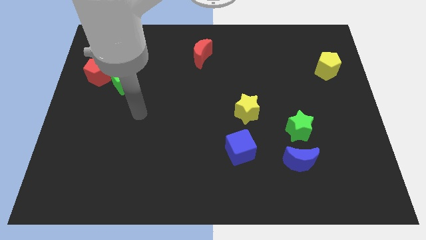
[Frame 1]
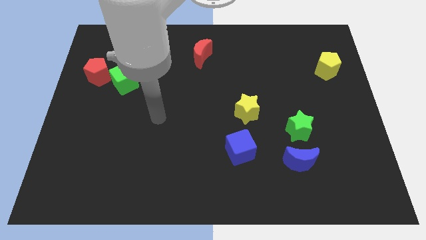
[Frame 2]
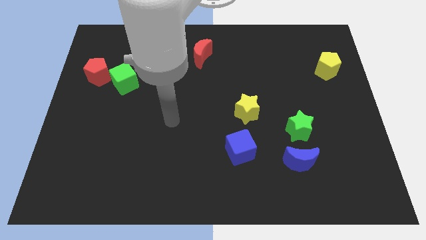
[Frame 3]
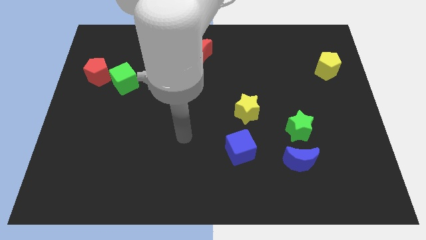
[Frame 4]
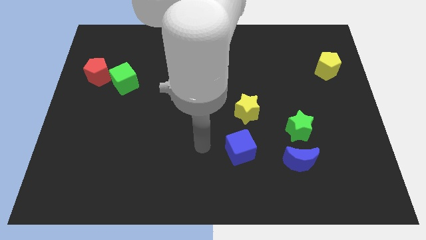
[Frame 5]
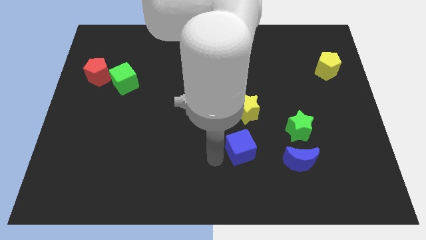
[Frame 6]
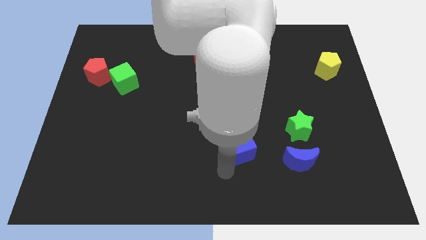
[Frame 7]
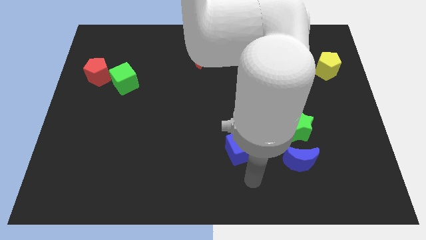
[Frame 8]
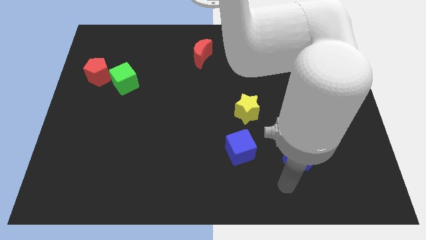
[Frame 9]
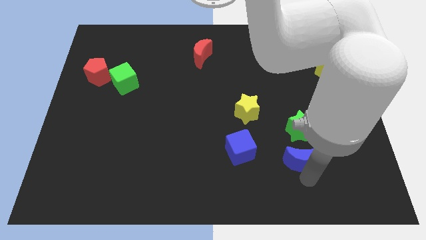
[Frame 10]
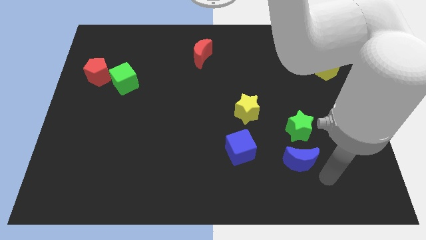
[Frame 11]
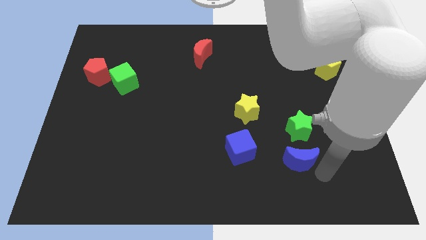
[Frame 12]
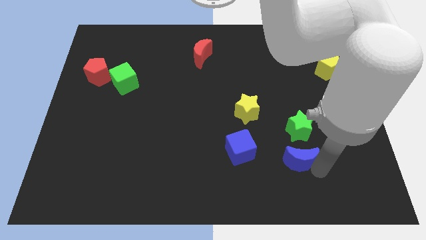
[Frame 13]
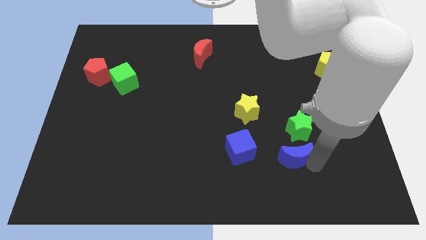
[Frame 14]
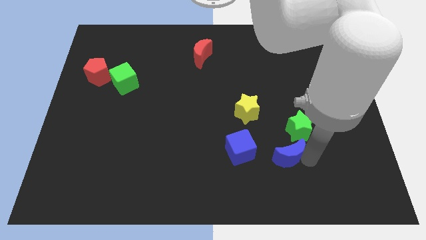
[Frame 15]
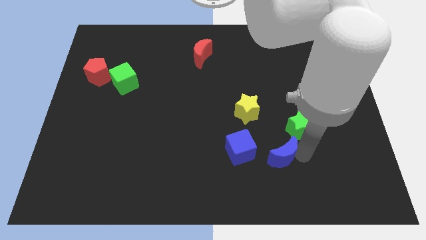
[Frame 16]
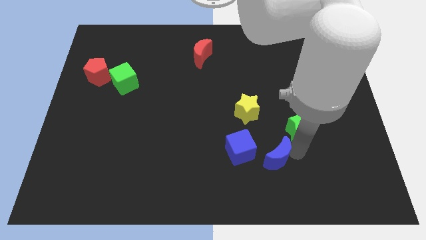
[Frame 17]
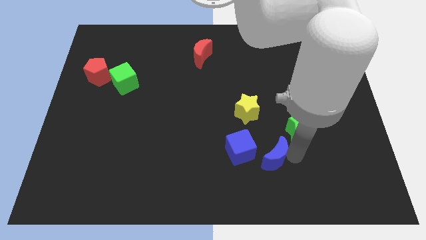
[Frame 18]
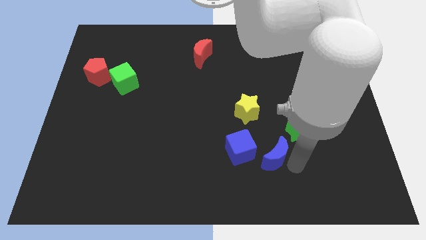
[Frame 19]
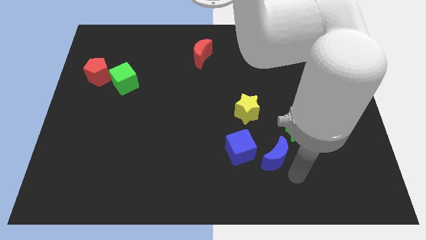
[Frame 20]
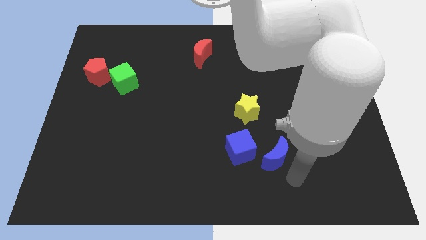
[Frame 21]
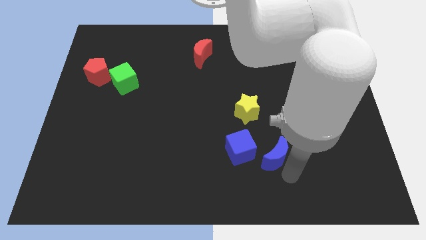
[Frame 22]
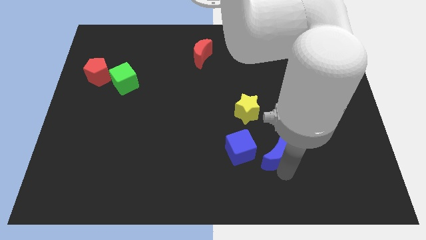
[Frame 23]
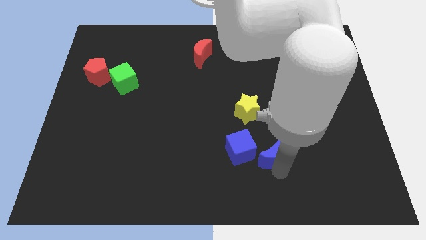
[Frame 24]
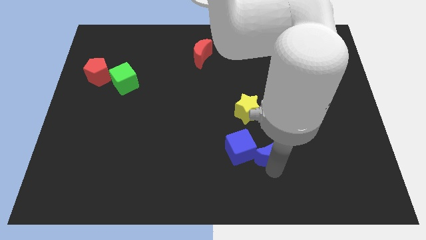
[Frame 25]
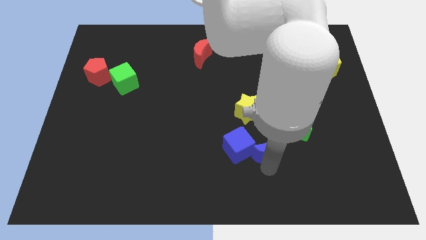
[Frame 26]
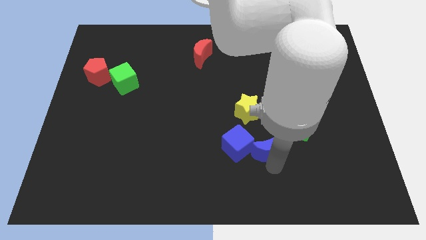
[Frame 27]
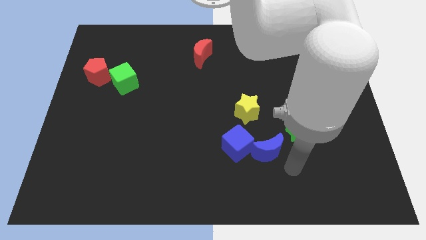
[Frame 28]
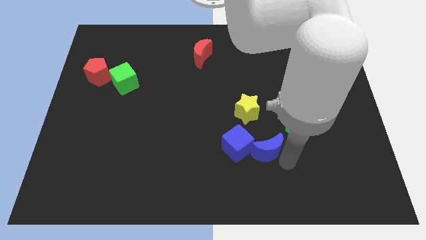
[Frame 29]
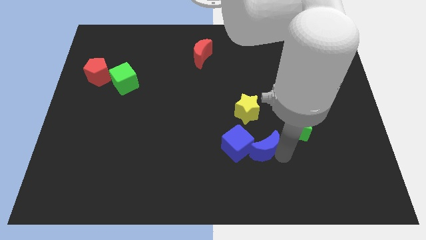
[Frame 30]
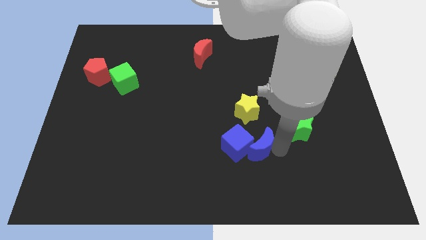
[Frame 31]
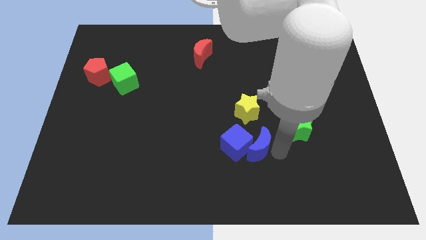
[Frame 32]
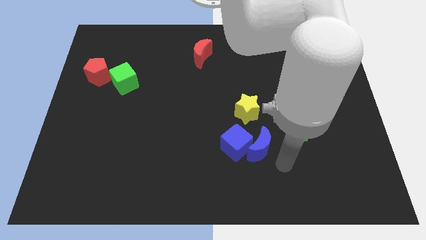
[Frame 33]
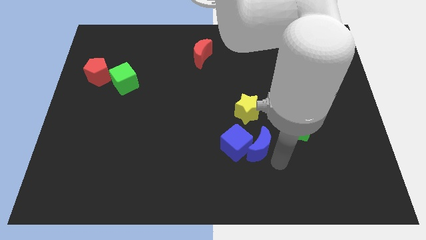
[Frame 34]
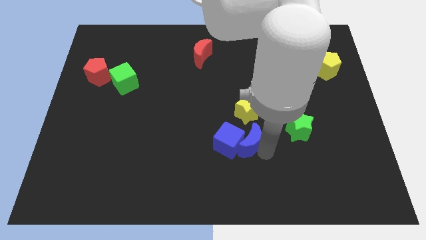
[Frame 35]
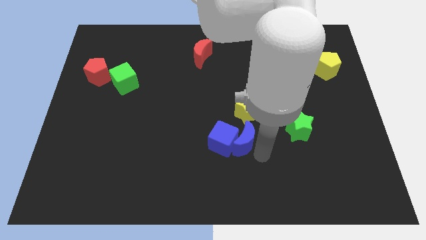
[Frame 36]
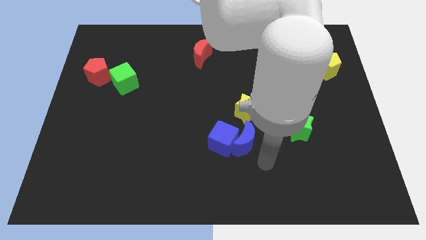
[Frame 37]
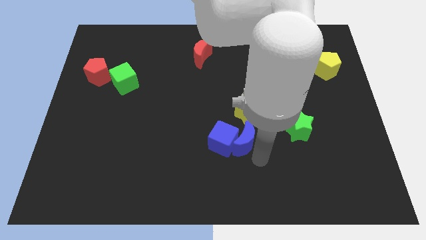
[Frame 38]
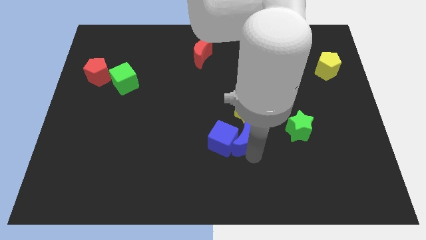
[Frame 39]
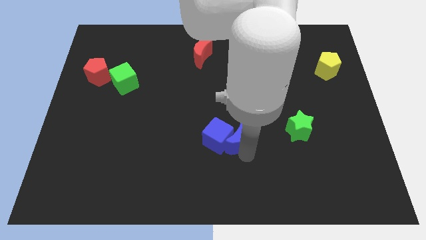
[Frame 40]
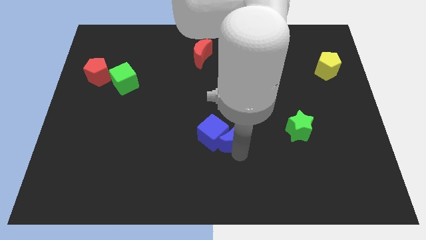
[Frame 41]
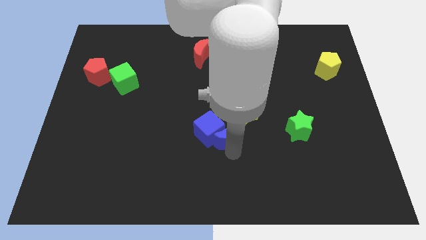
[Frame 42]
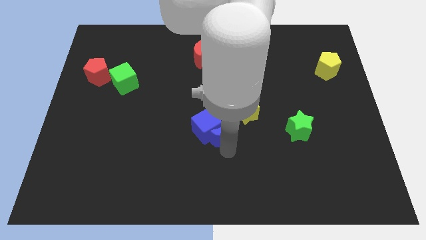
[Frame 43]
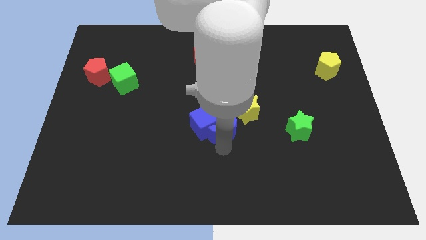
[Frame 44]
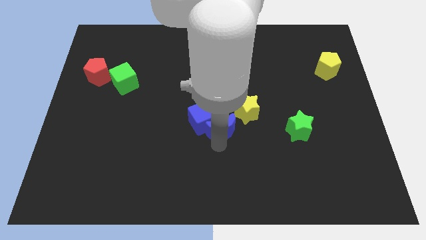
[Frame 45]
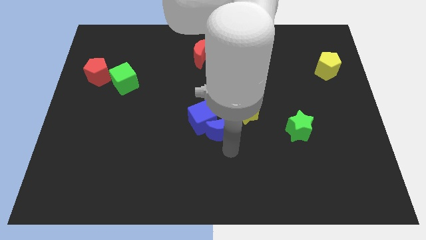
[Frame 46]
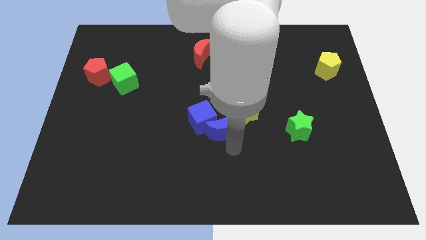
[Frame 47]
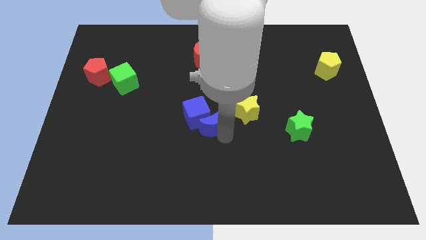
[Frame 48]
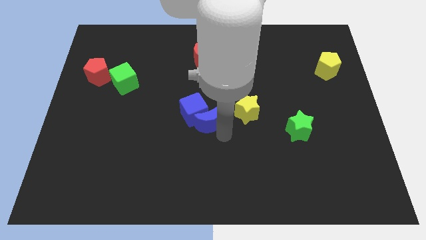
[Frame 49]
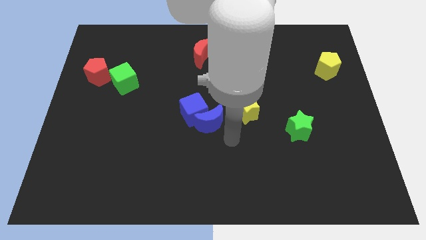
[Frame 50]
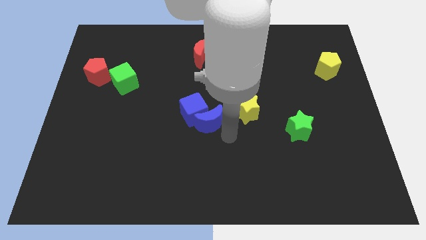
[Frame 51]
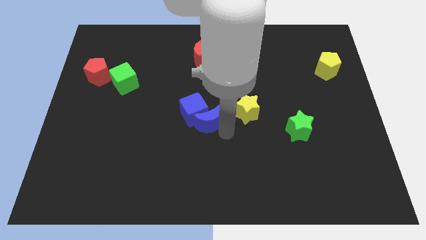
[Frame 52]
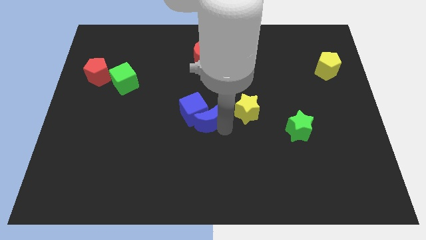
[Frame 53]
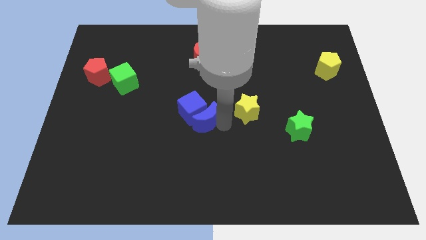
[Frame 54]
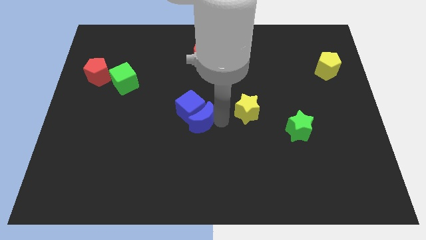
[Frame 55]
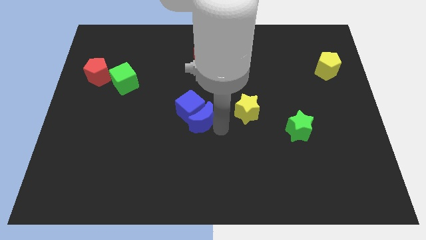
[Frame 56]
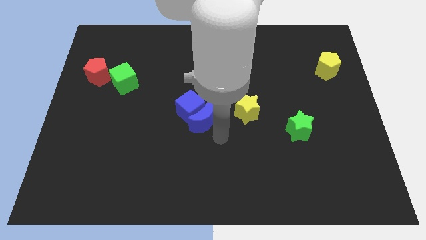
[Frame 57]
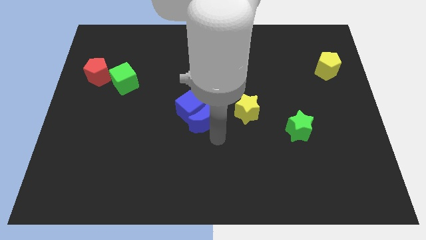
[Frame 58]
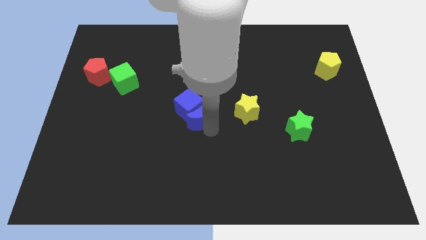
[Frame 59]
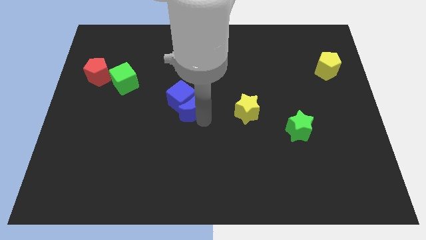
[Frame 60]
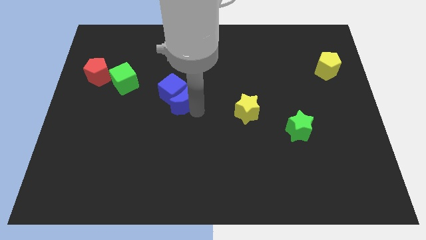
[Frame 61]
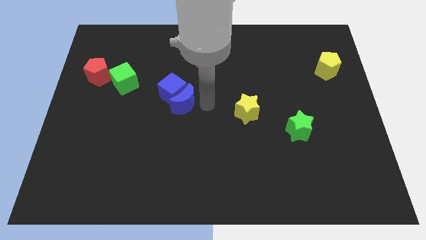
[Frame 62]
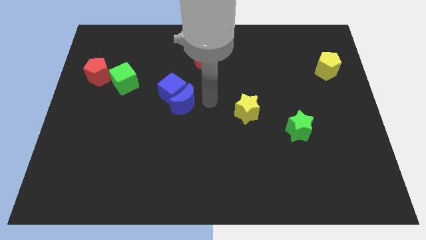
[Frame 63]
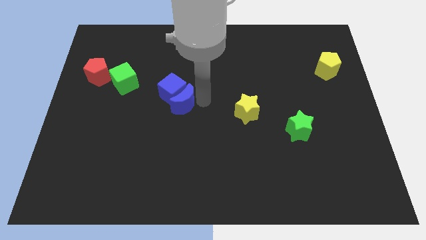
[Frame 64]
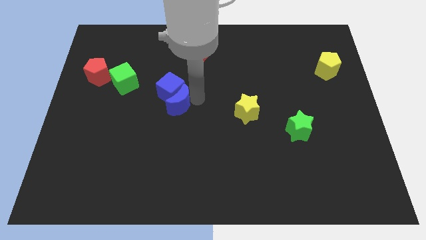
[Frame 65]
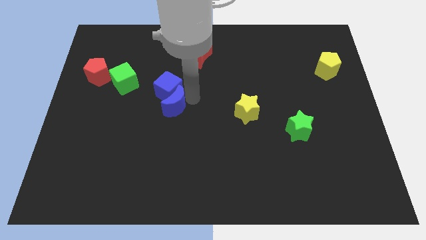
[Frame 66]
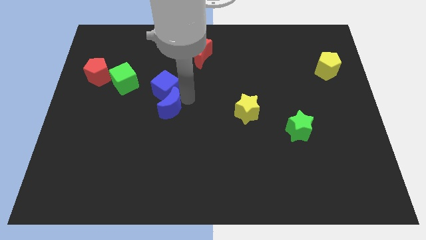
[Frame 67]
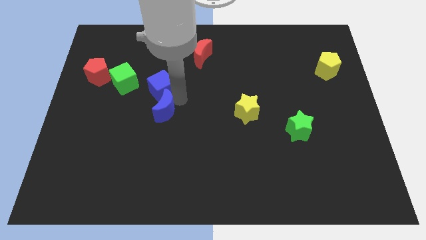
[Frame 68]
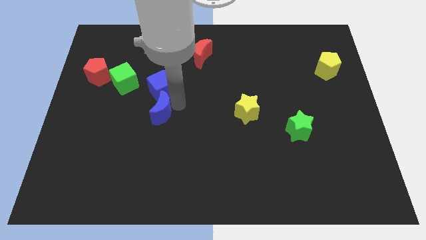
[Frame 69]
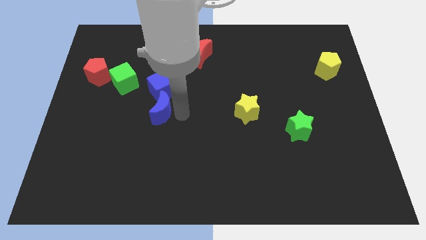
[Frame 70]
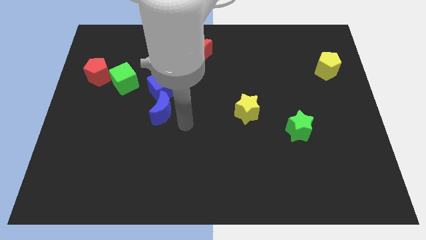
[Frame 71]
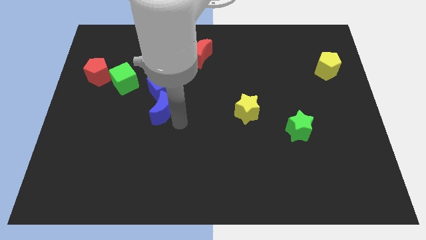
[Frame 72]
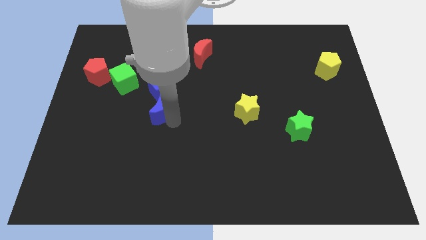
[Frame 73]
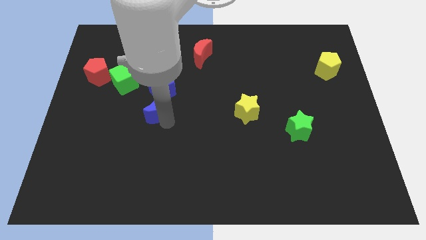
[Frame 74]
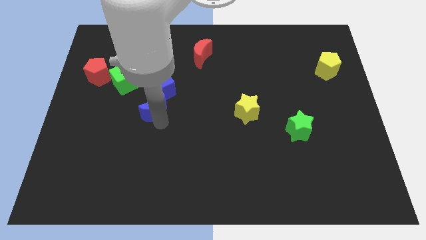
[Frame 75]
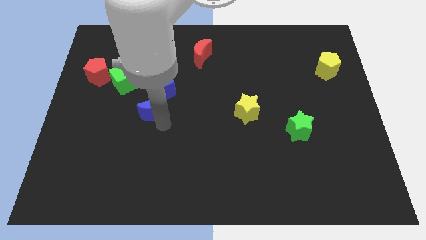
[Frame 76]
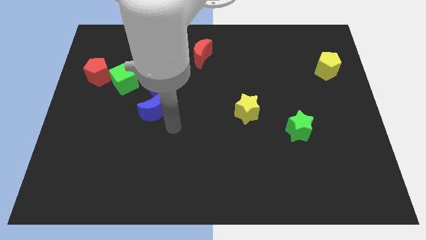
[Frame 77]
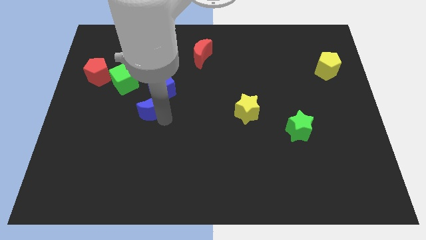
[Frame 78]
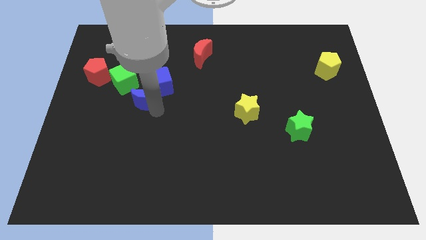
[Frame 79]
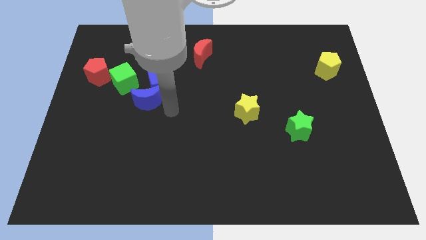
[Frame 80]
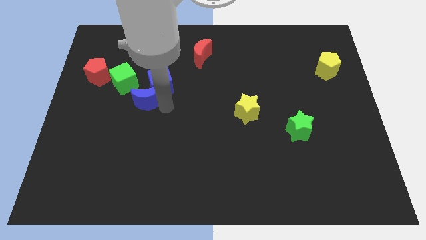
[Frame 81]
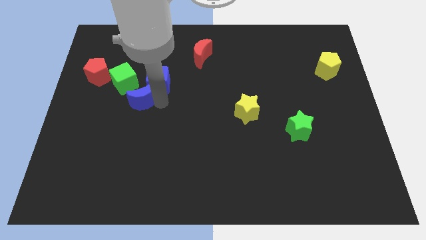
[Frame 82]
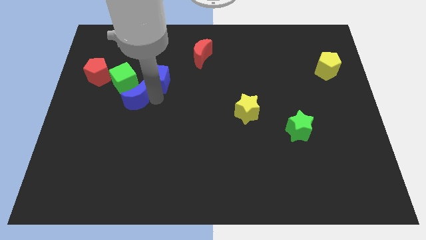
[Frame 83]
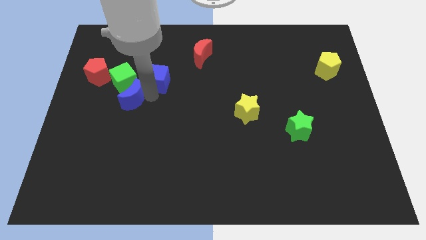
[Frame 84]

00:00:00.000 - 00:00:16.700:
push the blue moon diagonally down and to the right of the red pentagon
